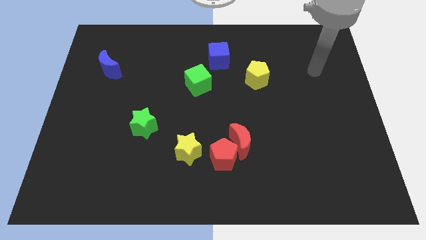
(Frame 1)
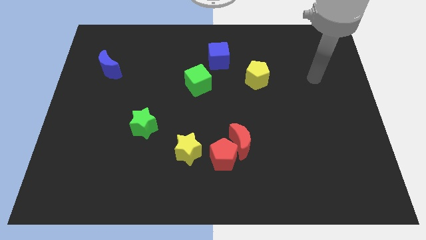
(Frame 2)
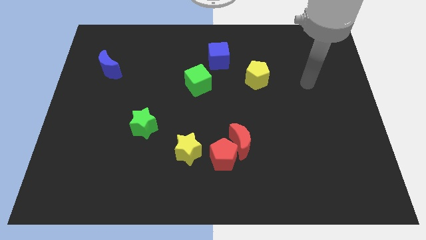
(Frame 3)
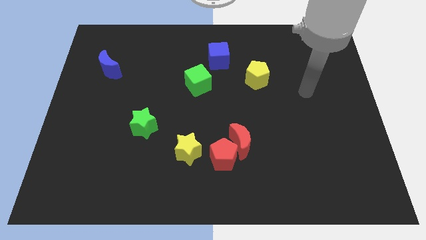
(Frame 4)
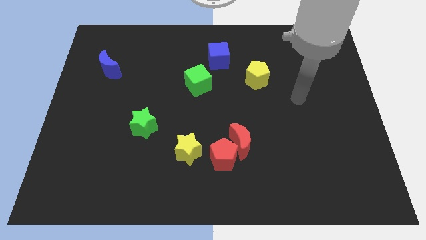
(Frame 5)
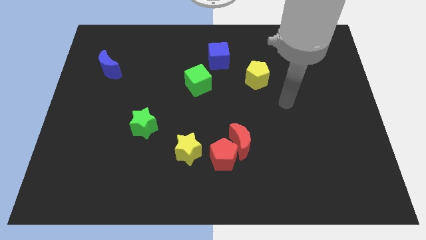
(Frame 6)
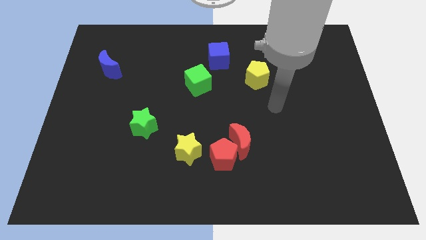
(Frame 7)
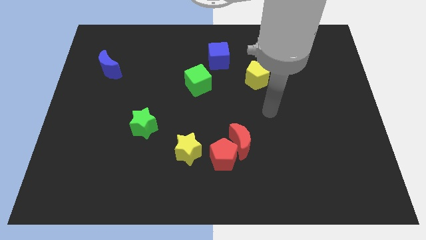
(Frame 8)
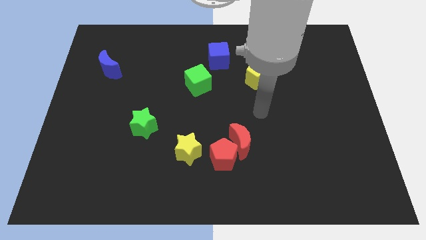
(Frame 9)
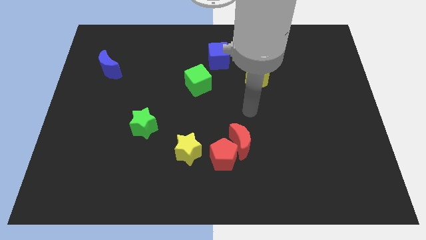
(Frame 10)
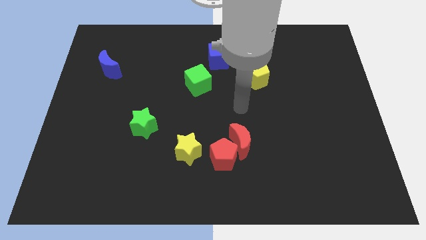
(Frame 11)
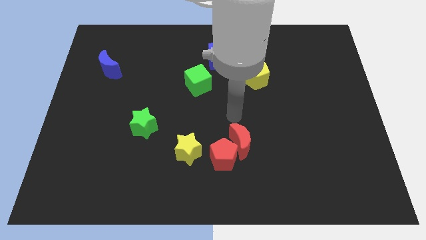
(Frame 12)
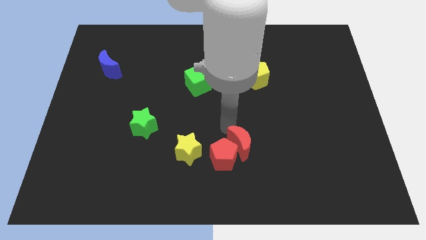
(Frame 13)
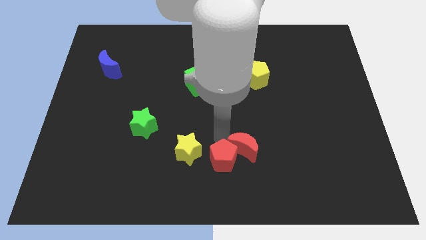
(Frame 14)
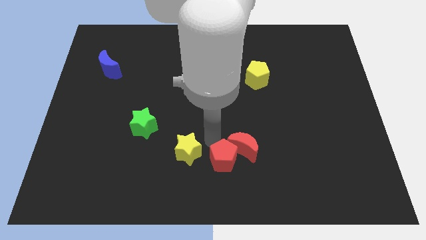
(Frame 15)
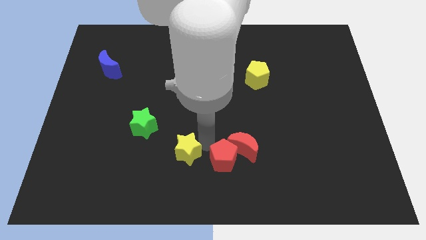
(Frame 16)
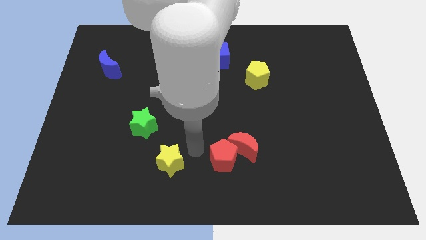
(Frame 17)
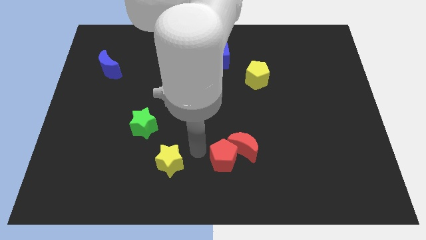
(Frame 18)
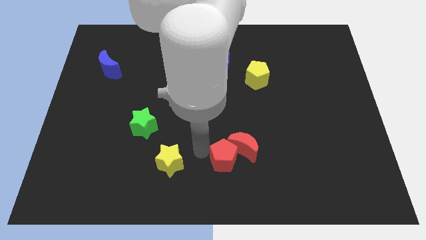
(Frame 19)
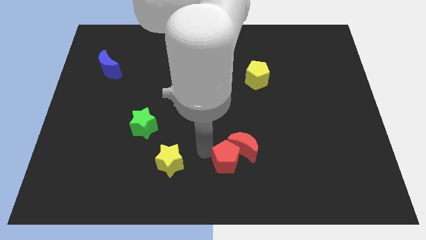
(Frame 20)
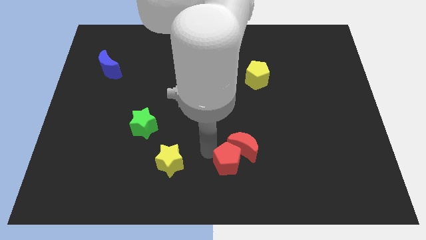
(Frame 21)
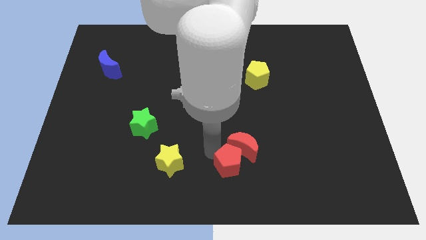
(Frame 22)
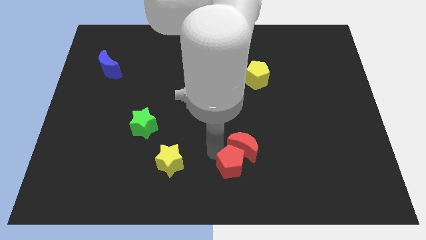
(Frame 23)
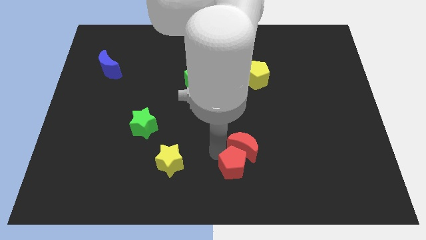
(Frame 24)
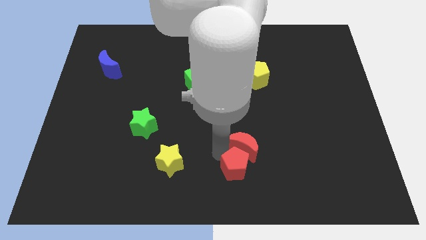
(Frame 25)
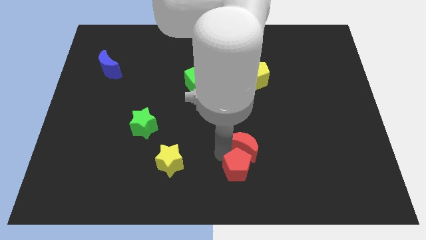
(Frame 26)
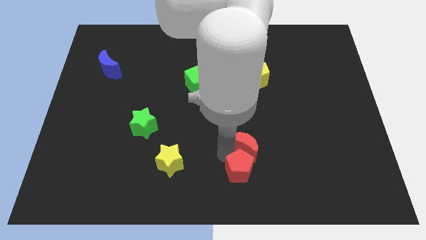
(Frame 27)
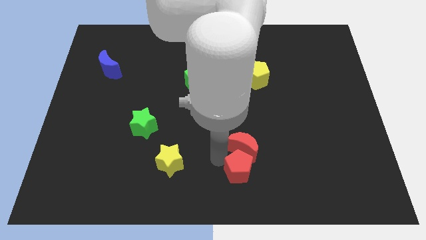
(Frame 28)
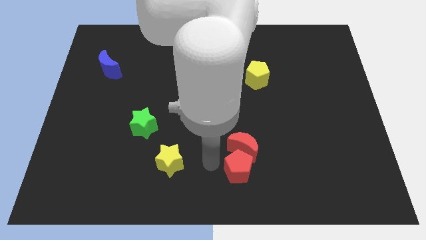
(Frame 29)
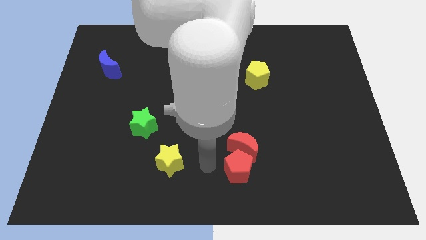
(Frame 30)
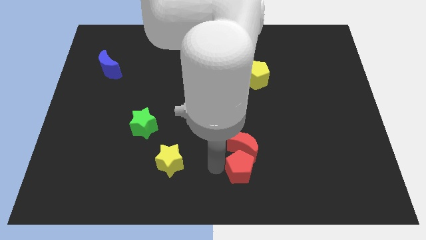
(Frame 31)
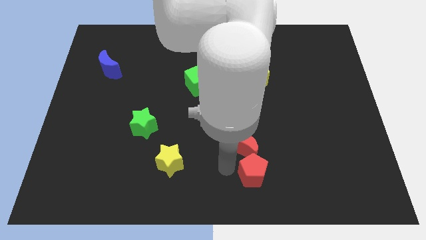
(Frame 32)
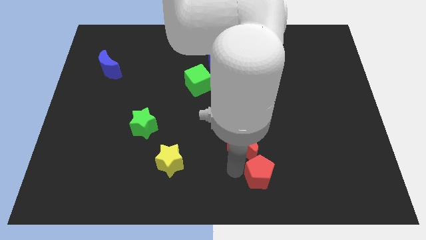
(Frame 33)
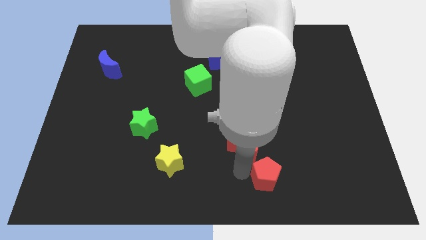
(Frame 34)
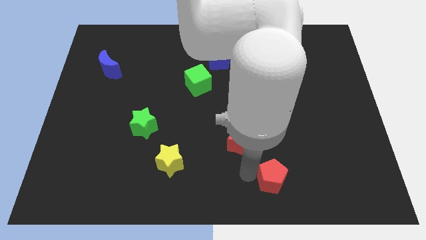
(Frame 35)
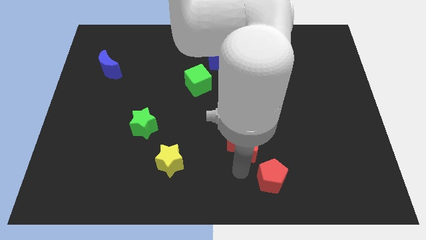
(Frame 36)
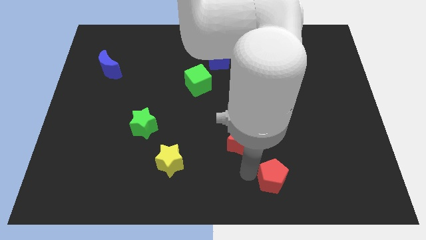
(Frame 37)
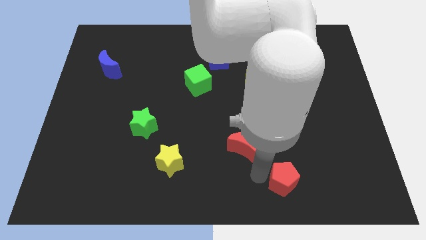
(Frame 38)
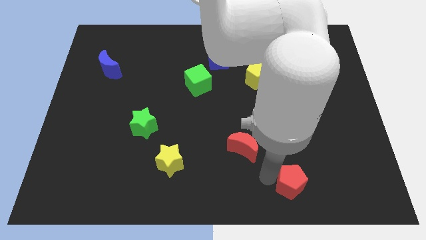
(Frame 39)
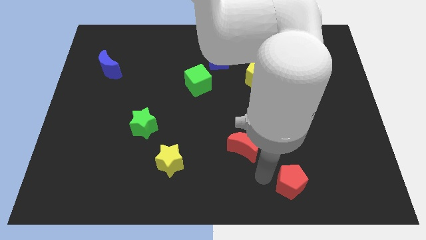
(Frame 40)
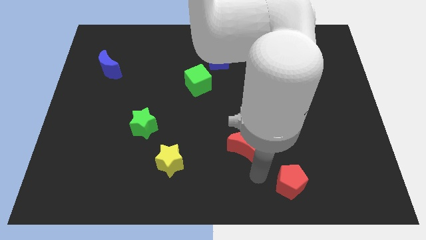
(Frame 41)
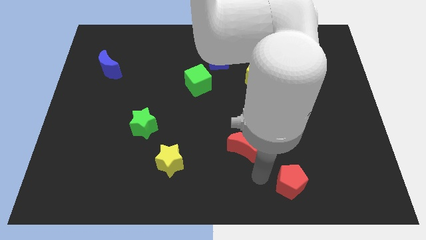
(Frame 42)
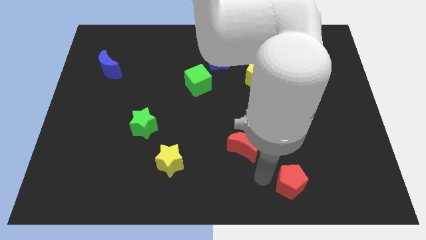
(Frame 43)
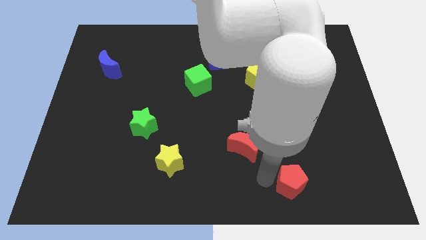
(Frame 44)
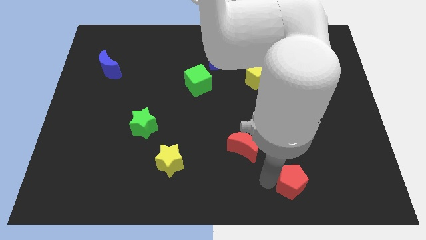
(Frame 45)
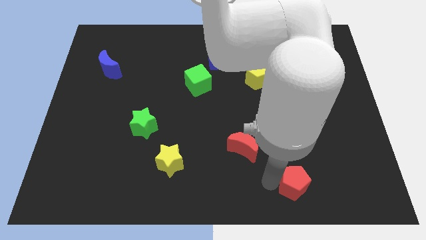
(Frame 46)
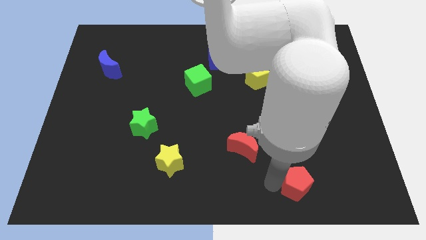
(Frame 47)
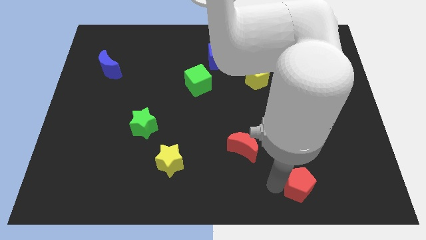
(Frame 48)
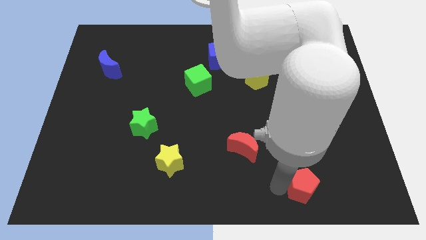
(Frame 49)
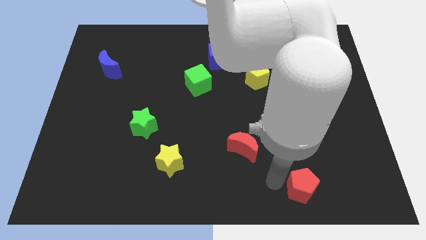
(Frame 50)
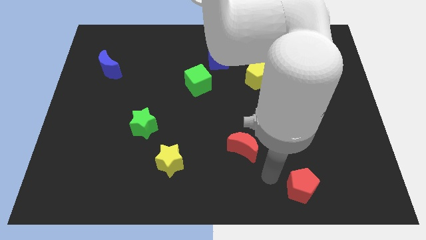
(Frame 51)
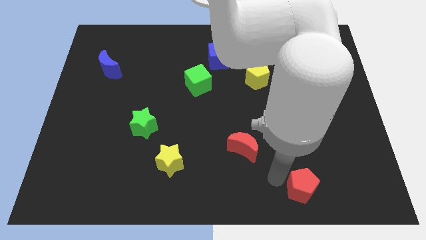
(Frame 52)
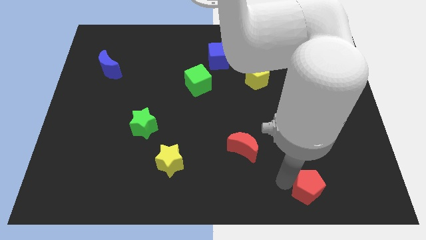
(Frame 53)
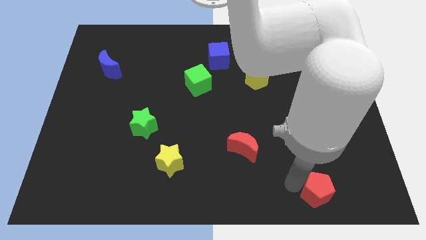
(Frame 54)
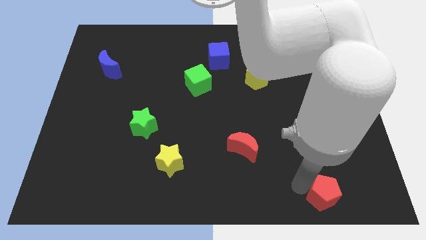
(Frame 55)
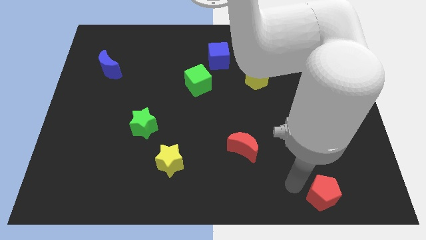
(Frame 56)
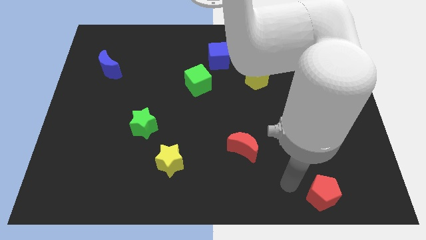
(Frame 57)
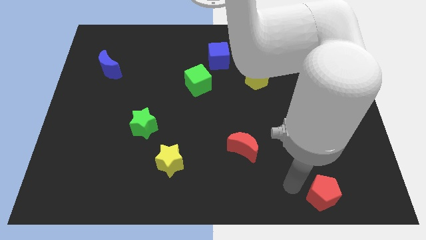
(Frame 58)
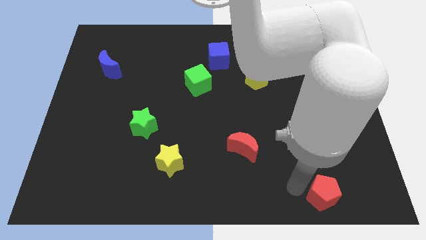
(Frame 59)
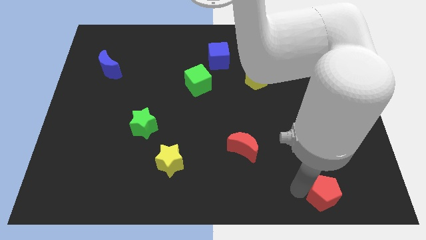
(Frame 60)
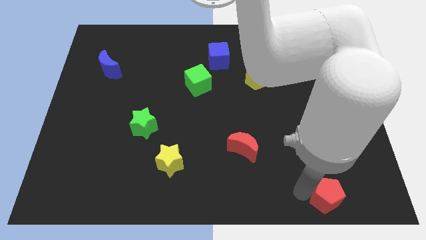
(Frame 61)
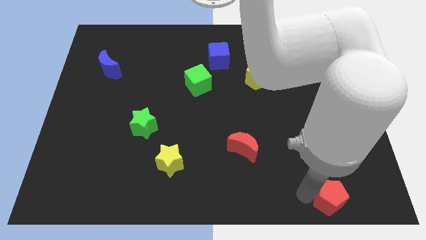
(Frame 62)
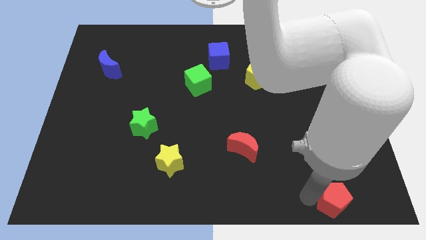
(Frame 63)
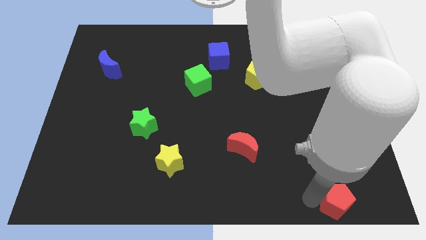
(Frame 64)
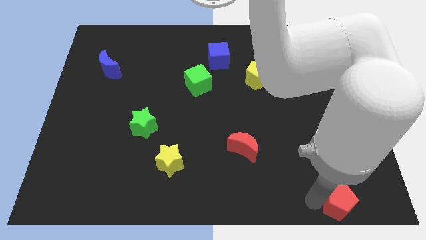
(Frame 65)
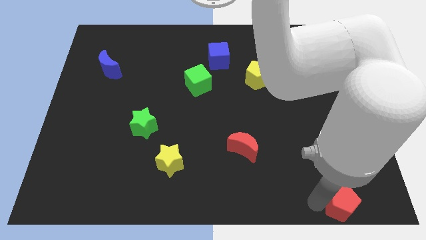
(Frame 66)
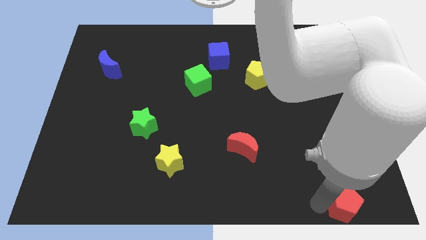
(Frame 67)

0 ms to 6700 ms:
slide the red pentagon to the bottom right corner
